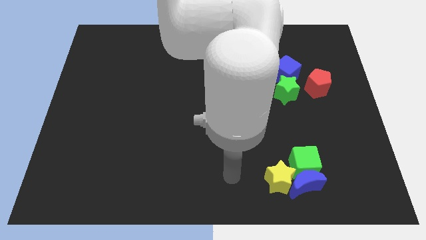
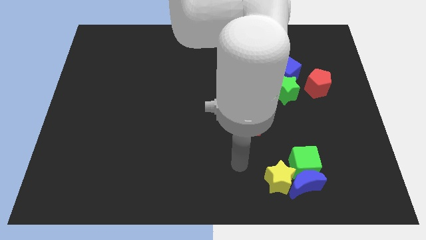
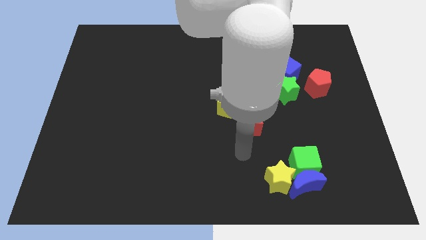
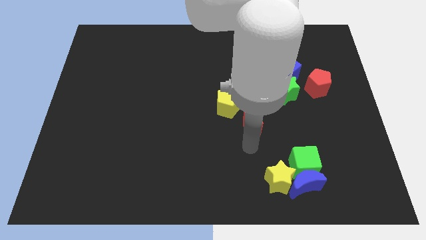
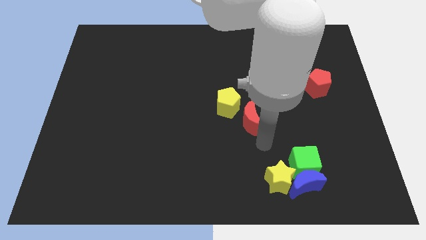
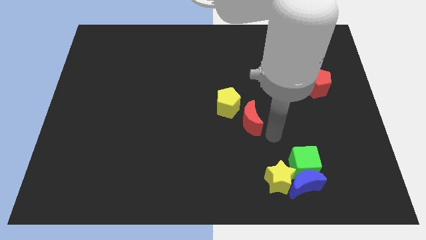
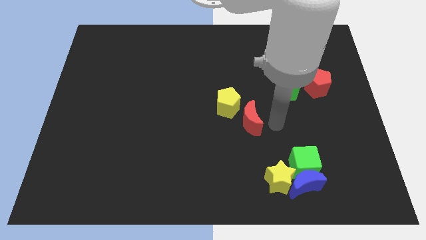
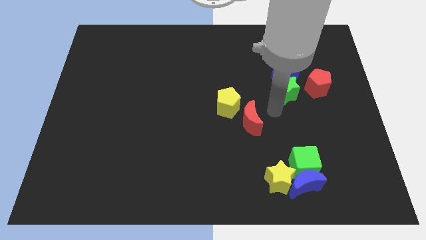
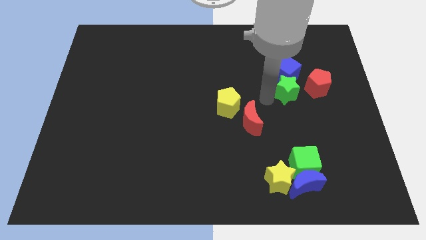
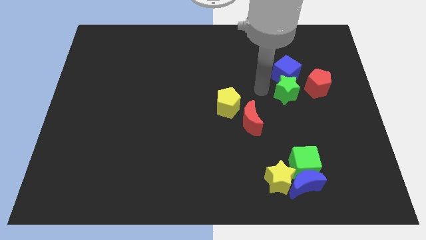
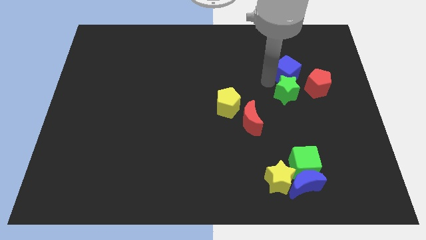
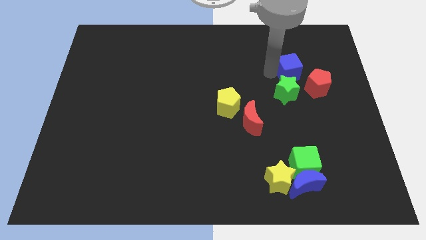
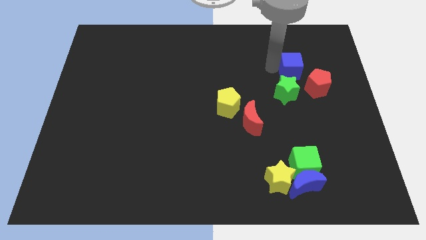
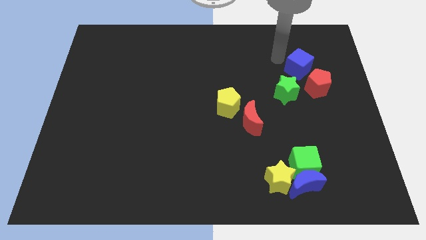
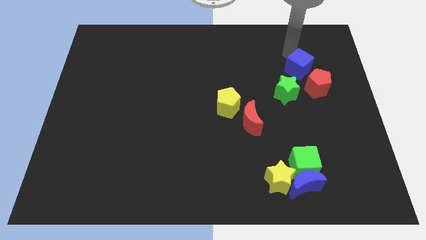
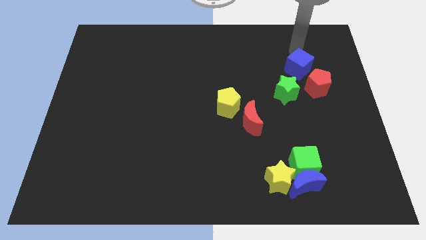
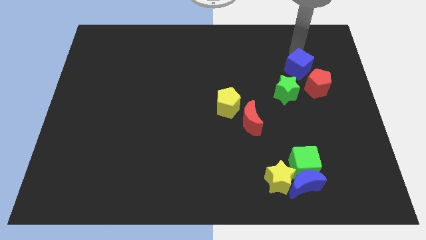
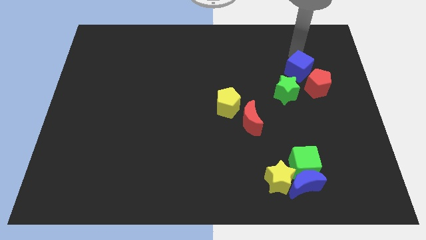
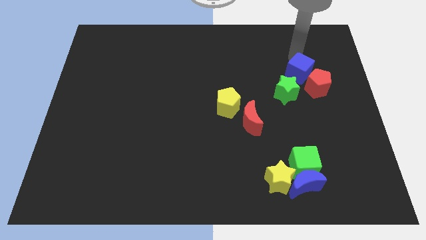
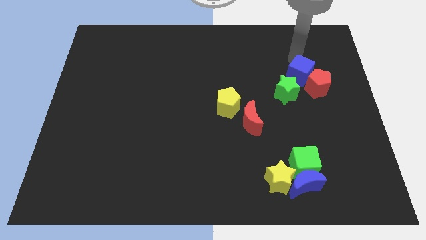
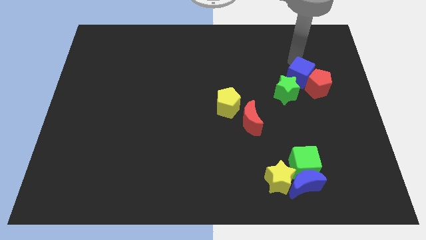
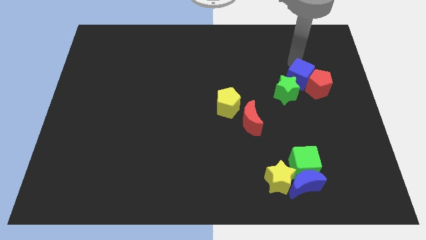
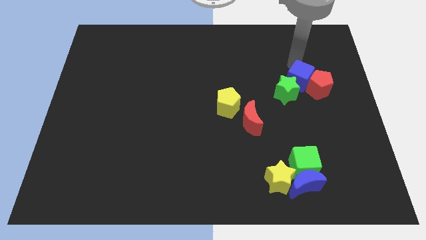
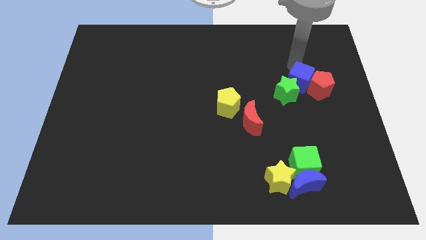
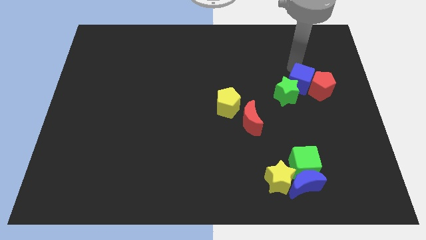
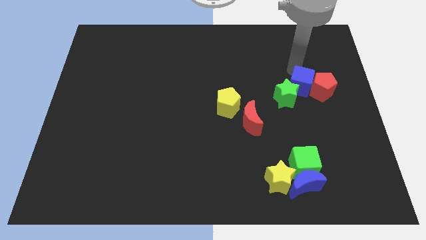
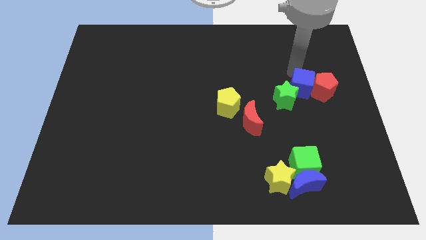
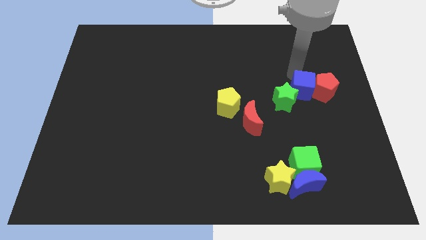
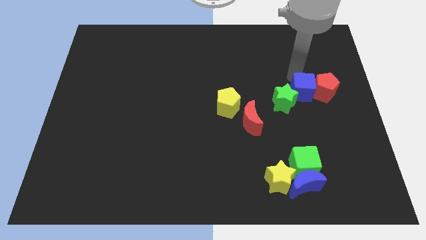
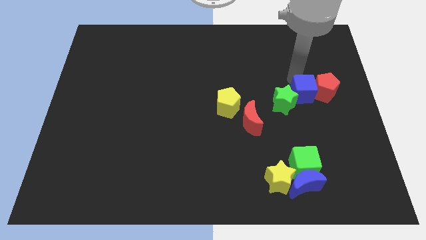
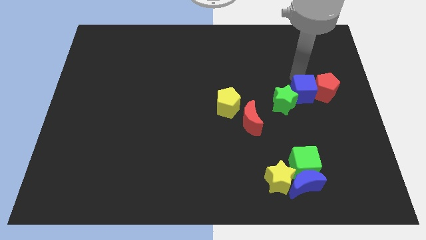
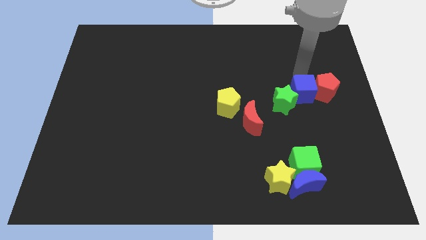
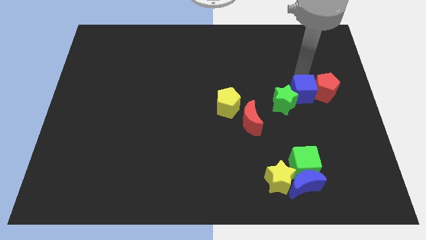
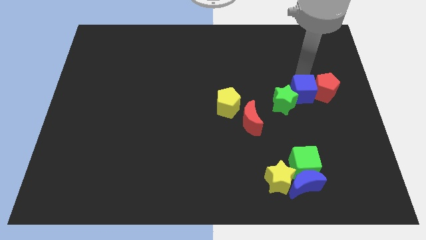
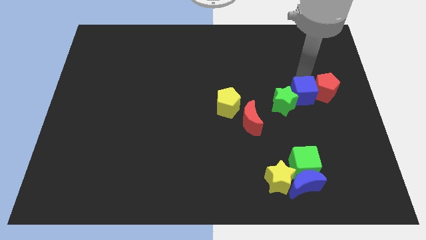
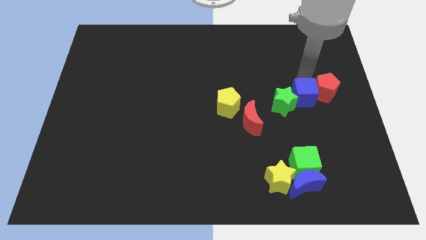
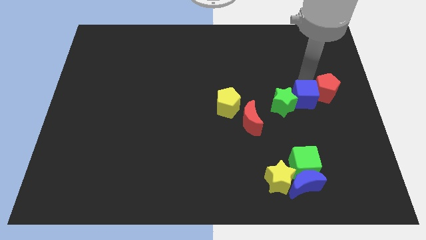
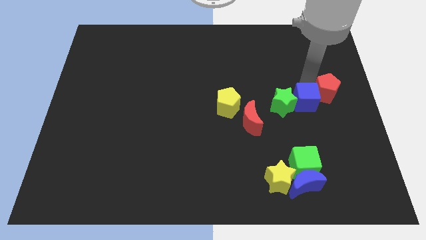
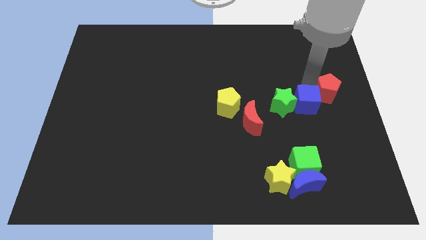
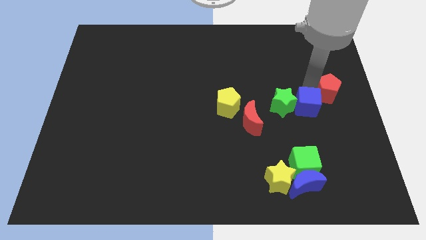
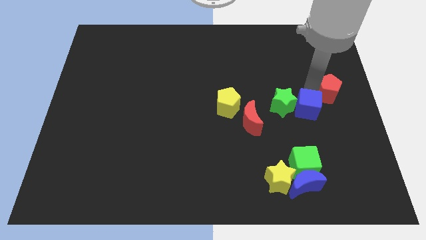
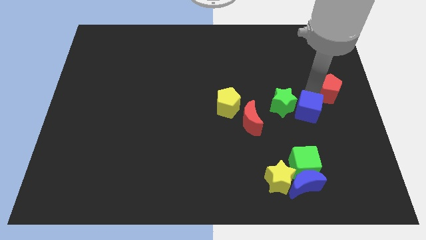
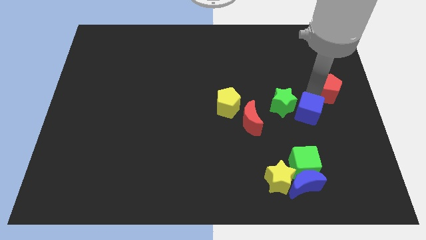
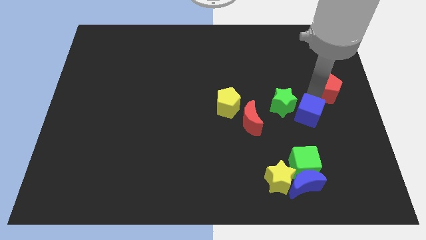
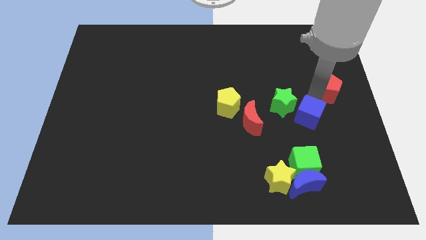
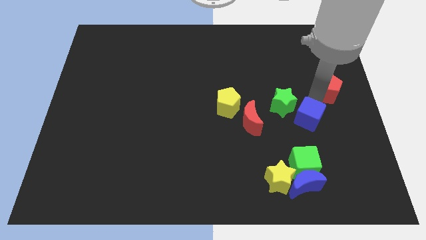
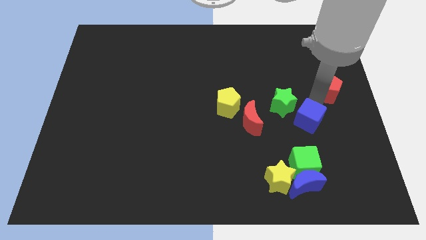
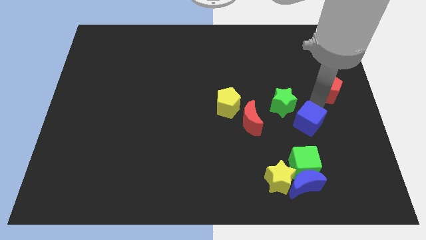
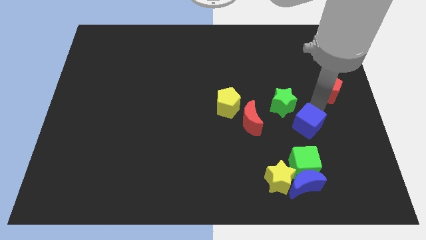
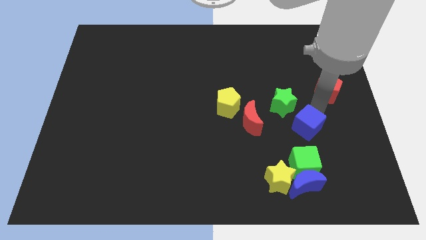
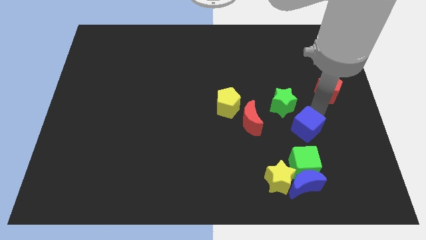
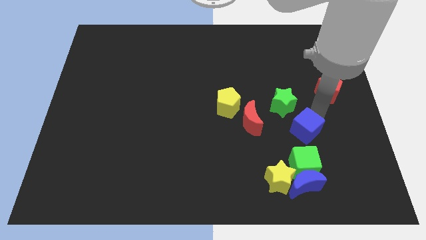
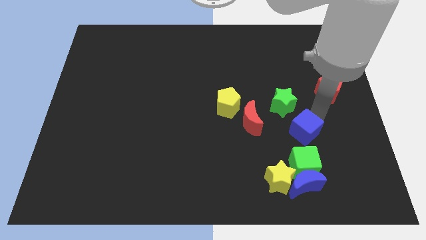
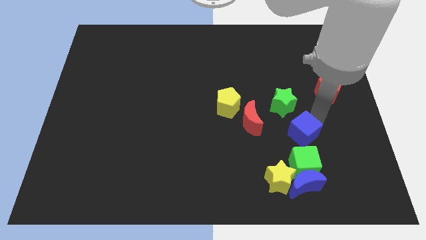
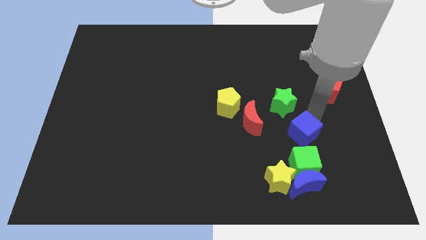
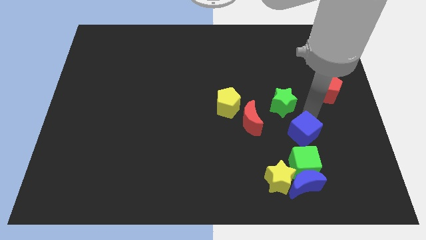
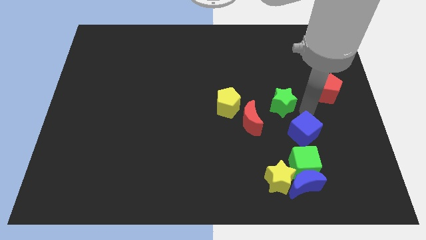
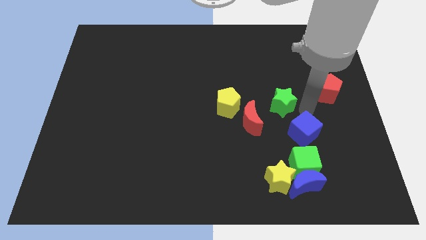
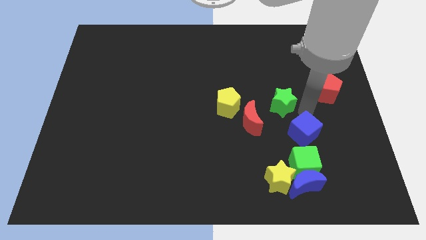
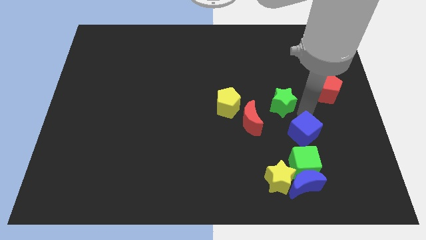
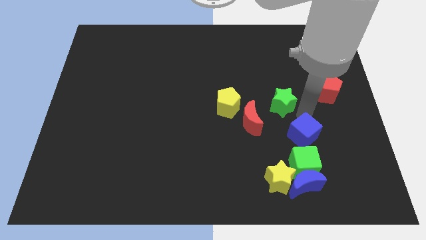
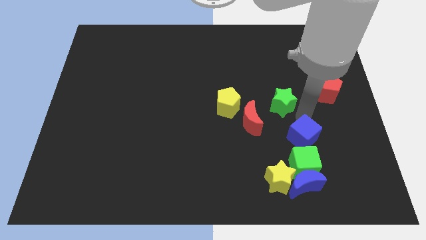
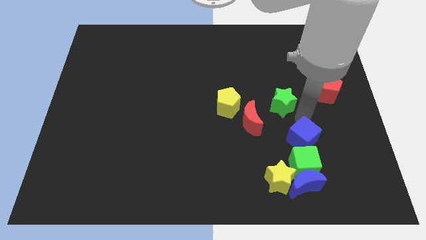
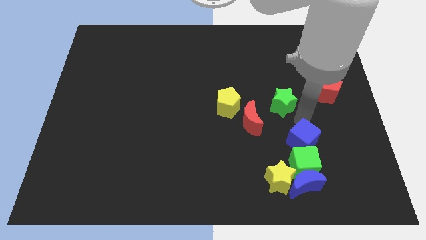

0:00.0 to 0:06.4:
put the blue cube close to the green cube
